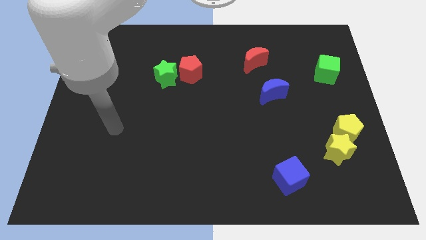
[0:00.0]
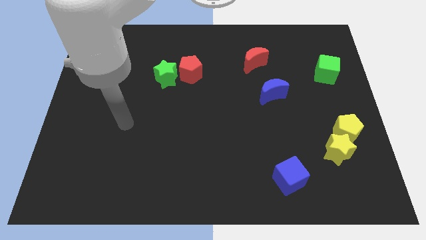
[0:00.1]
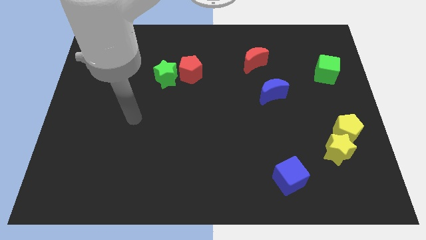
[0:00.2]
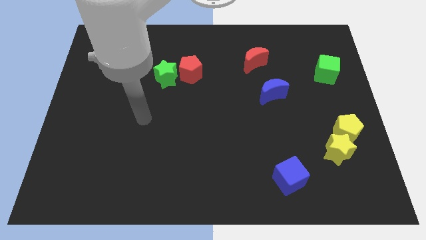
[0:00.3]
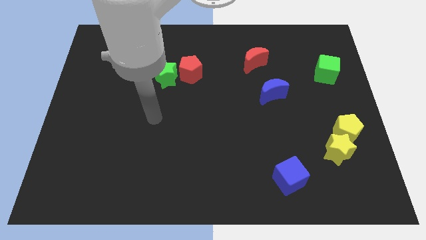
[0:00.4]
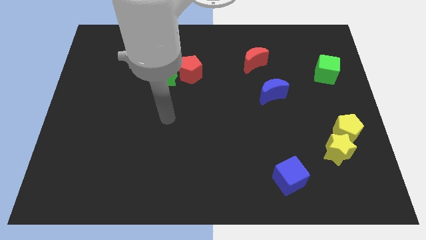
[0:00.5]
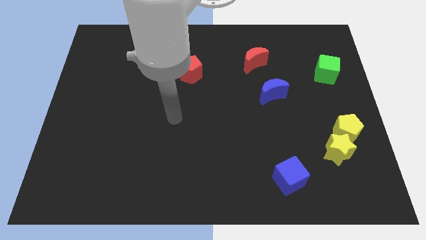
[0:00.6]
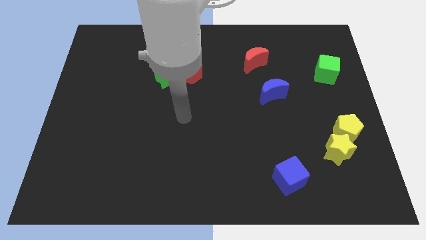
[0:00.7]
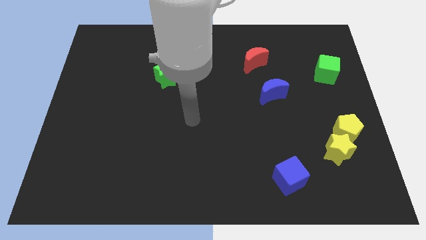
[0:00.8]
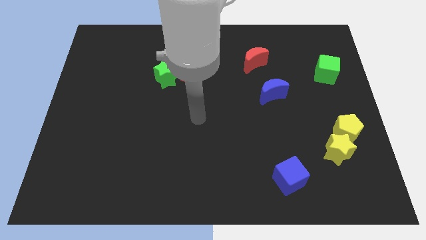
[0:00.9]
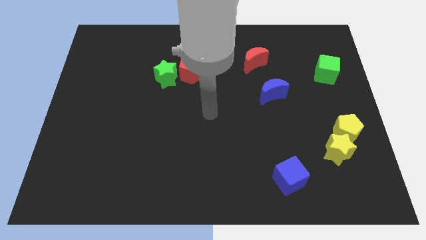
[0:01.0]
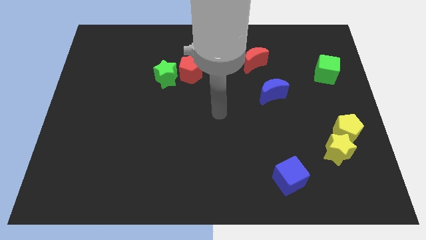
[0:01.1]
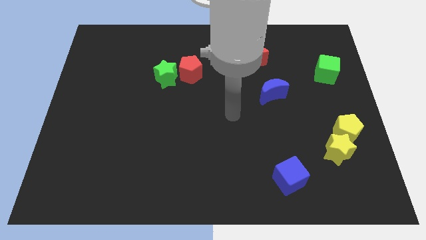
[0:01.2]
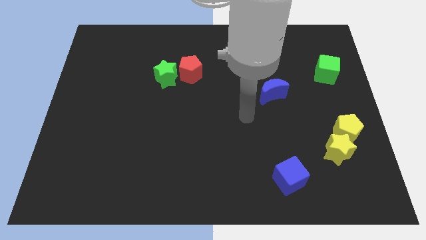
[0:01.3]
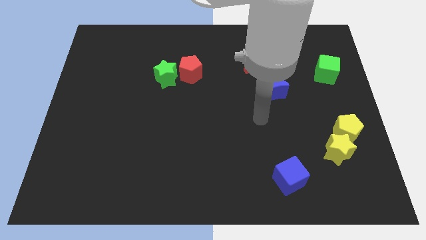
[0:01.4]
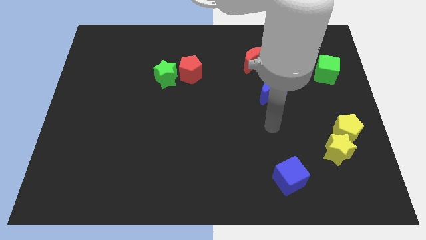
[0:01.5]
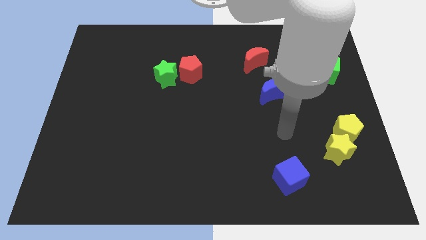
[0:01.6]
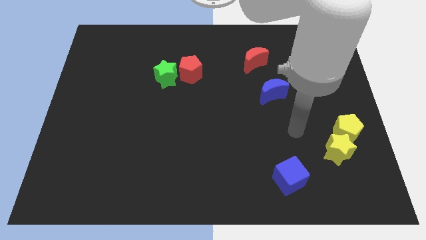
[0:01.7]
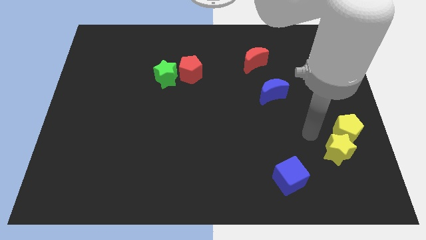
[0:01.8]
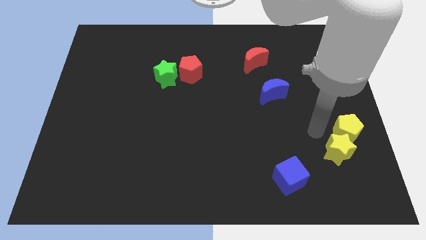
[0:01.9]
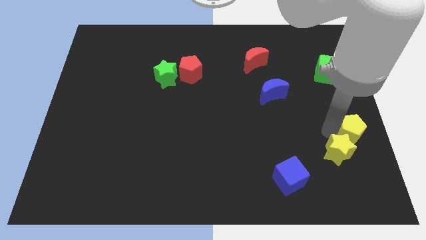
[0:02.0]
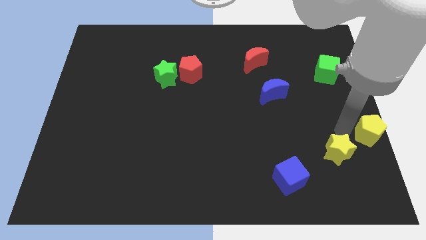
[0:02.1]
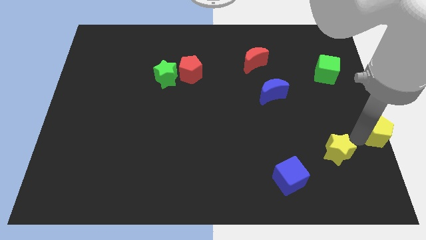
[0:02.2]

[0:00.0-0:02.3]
separate the yellow star from the yellow pentagon

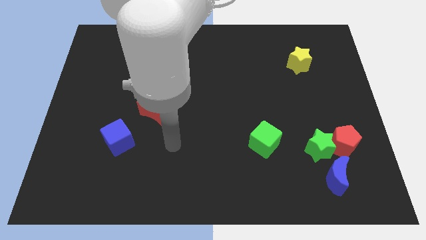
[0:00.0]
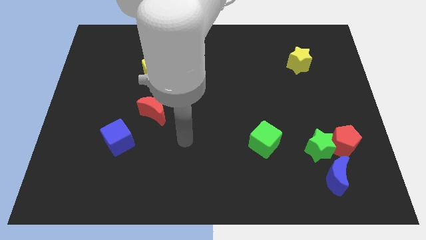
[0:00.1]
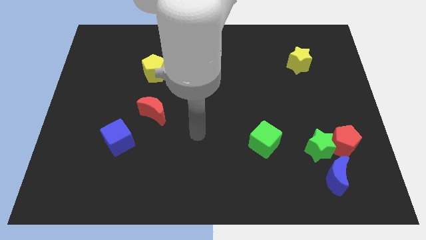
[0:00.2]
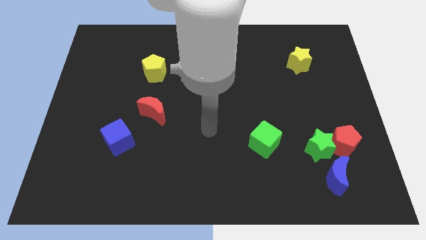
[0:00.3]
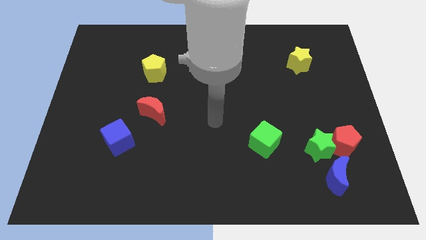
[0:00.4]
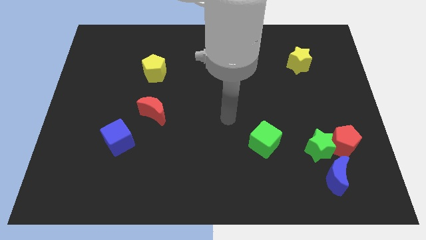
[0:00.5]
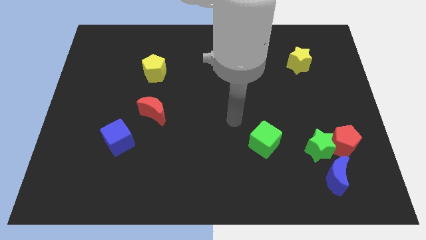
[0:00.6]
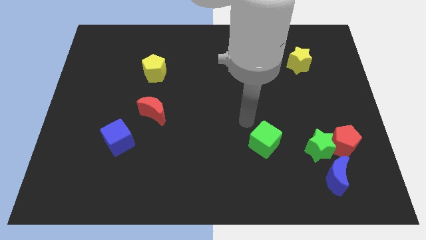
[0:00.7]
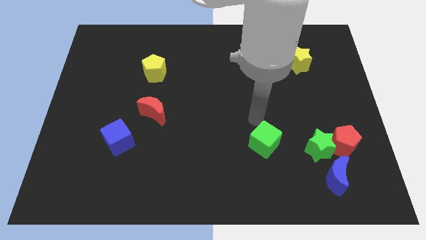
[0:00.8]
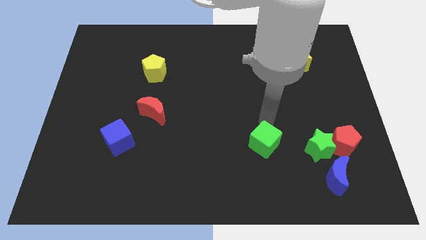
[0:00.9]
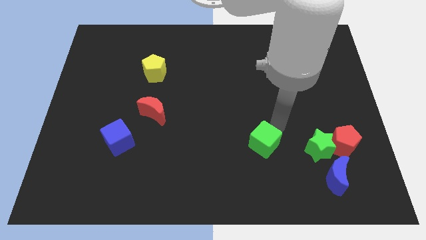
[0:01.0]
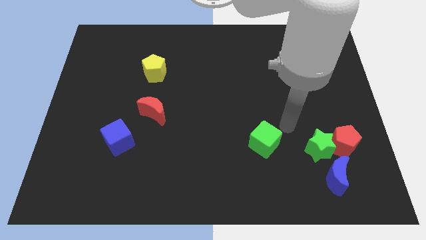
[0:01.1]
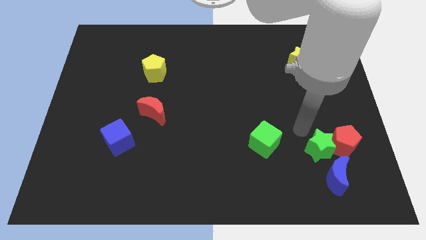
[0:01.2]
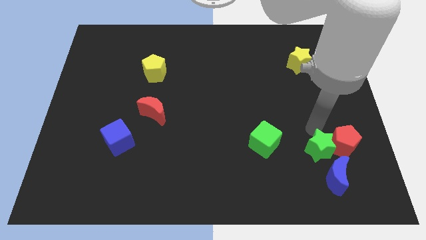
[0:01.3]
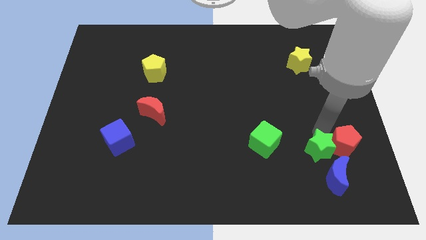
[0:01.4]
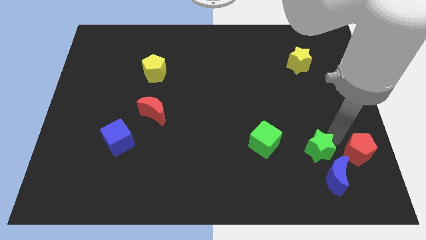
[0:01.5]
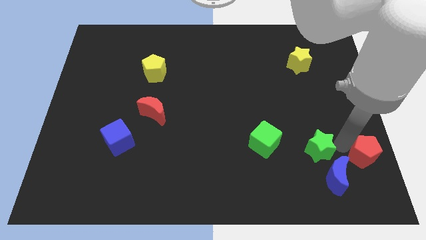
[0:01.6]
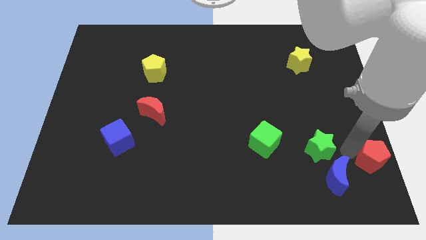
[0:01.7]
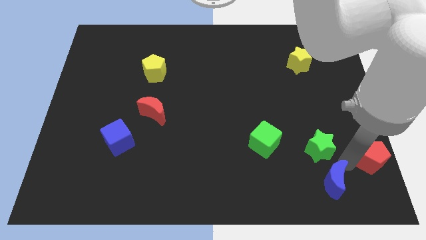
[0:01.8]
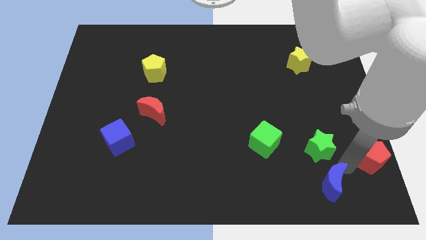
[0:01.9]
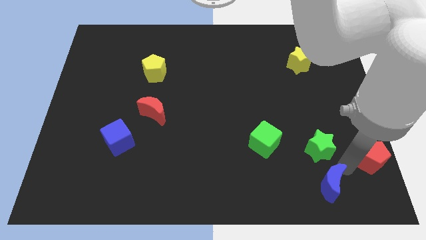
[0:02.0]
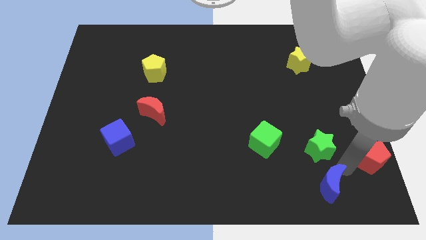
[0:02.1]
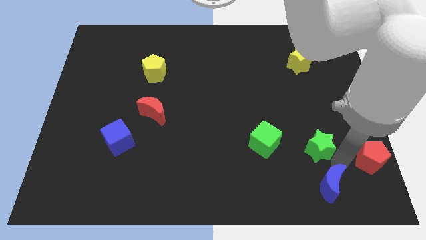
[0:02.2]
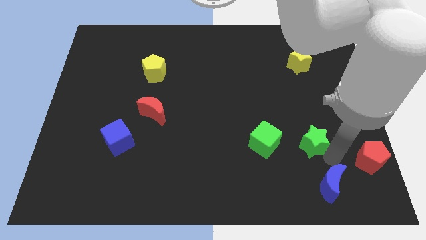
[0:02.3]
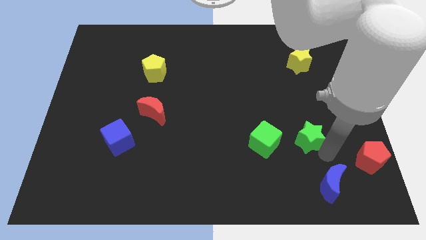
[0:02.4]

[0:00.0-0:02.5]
move the green star away from the red pentagon and blue moon

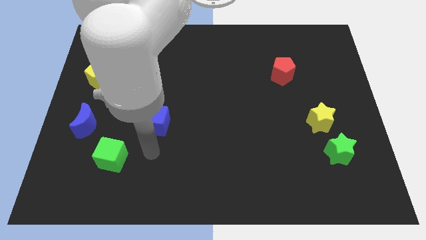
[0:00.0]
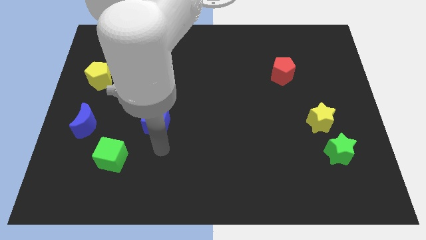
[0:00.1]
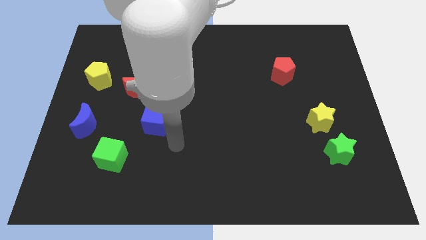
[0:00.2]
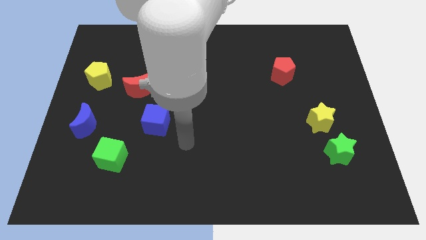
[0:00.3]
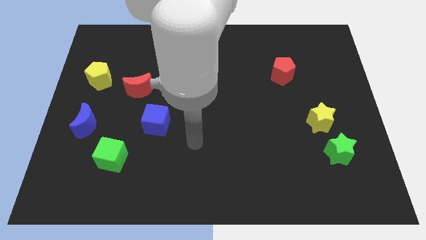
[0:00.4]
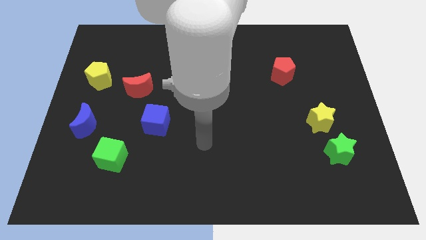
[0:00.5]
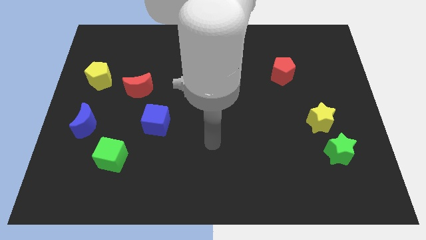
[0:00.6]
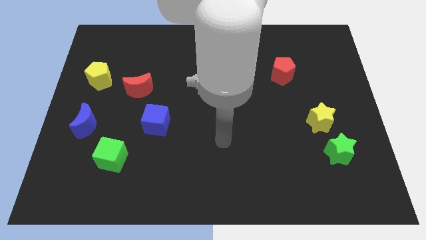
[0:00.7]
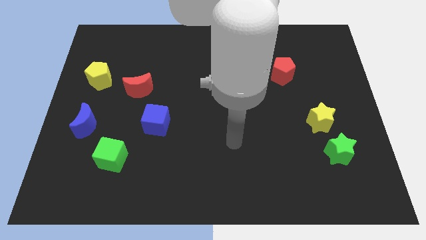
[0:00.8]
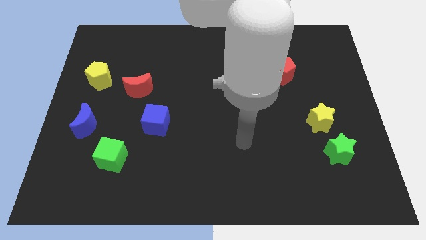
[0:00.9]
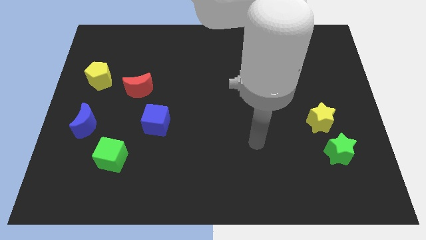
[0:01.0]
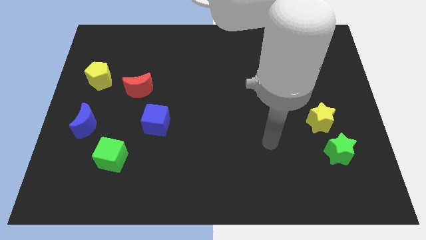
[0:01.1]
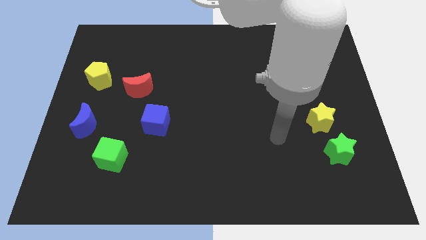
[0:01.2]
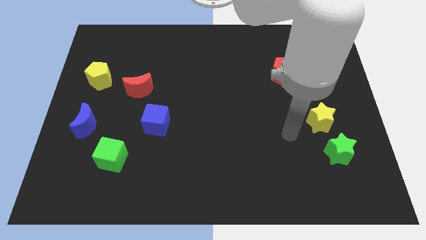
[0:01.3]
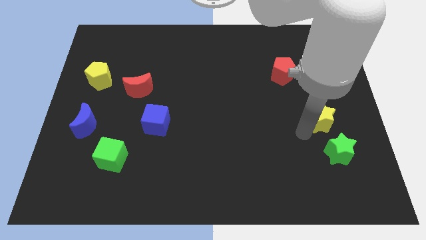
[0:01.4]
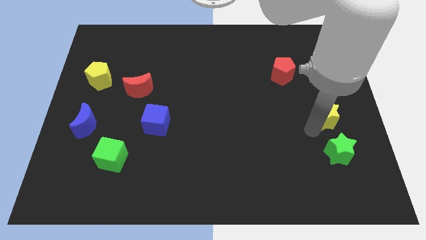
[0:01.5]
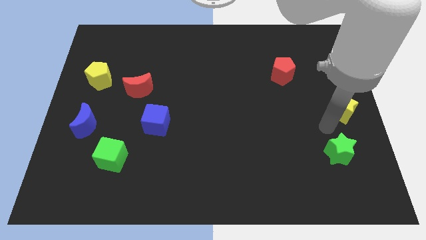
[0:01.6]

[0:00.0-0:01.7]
move the green star away from the yellow star

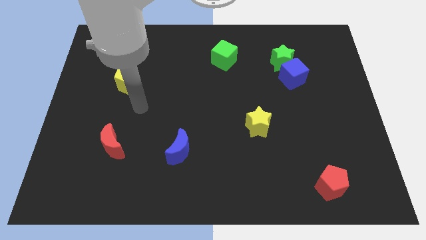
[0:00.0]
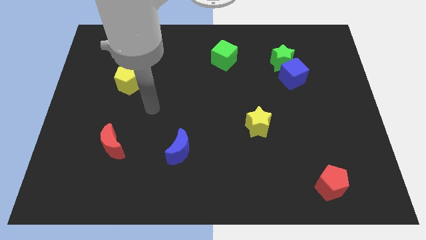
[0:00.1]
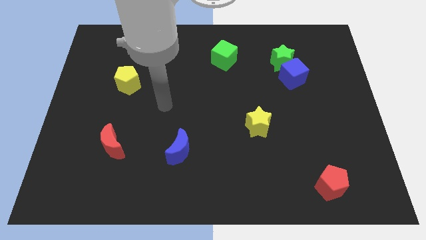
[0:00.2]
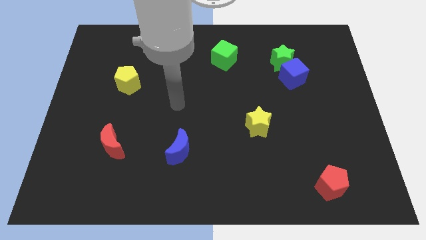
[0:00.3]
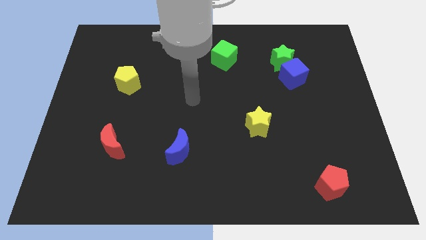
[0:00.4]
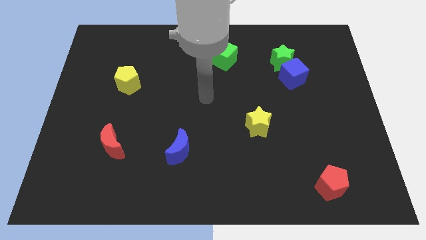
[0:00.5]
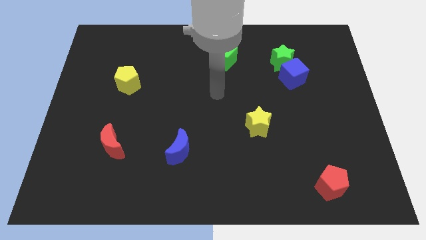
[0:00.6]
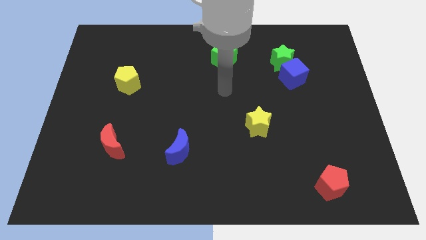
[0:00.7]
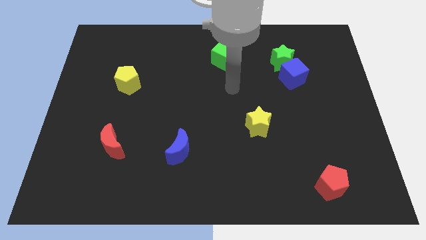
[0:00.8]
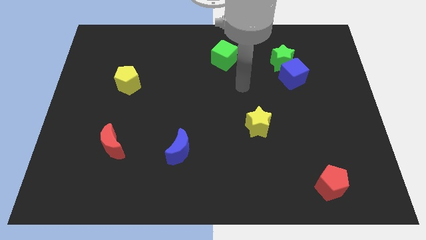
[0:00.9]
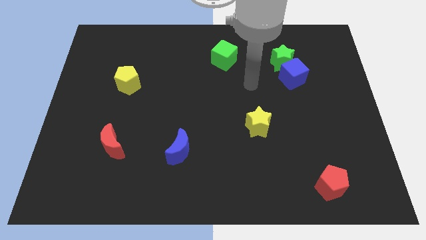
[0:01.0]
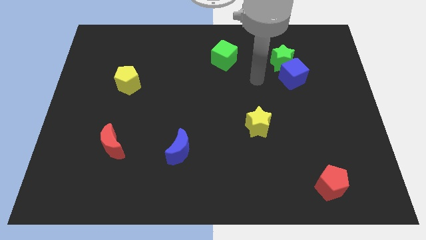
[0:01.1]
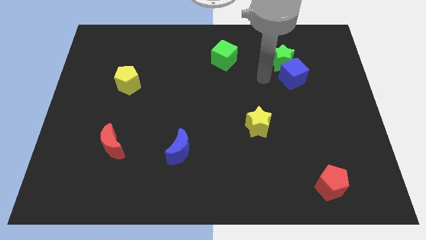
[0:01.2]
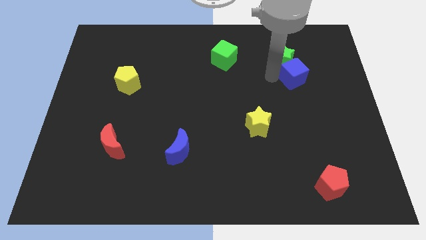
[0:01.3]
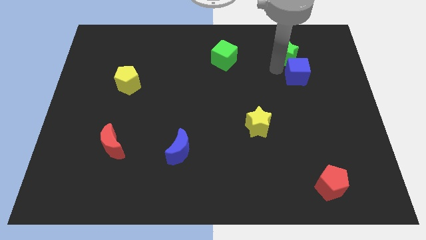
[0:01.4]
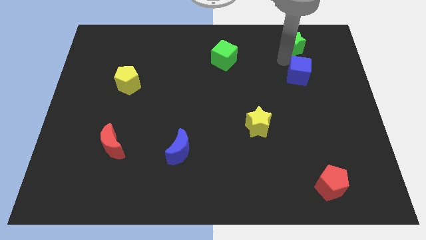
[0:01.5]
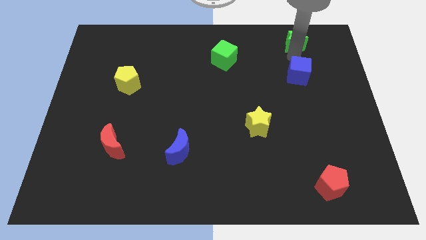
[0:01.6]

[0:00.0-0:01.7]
separate the blue cube from the green star

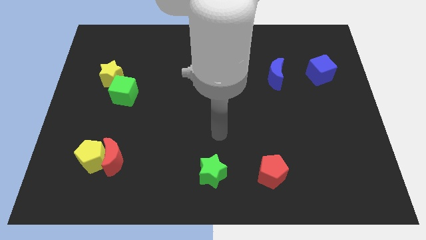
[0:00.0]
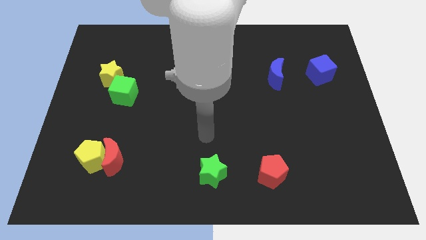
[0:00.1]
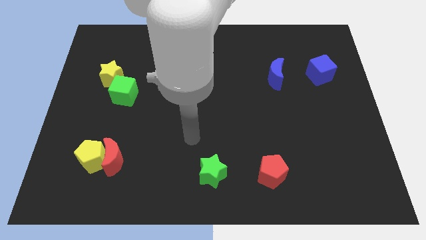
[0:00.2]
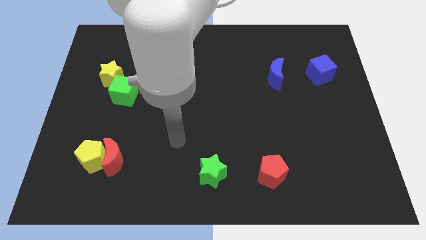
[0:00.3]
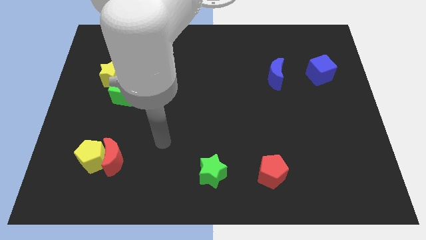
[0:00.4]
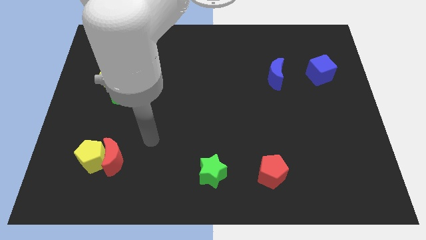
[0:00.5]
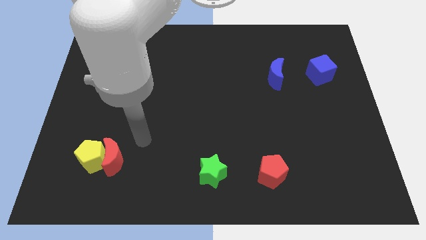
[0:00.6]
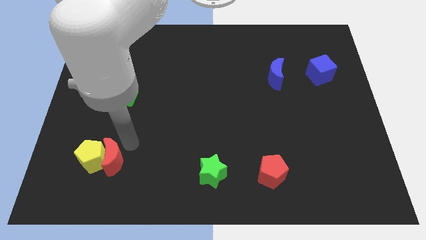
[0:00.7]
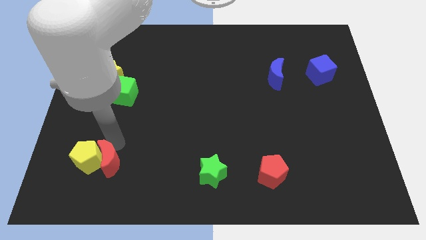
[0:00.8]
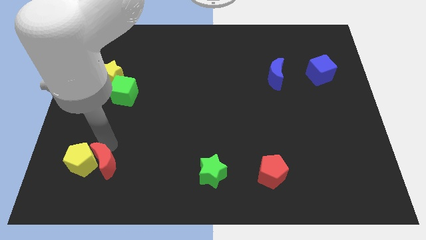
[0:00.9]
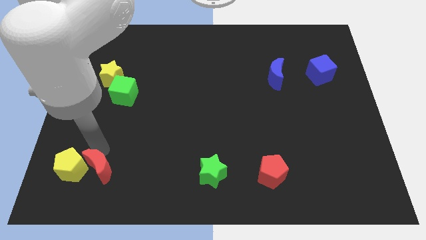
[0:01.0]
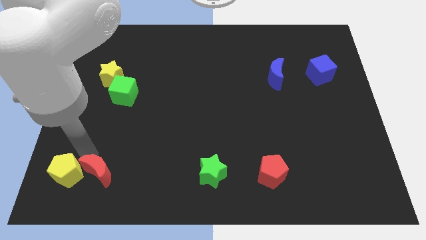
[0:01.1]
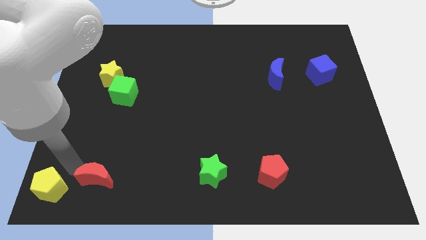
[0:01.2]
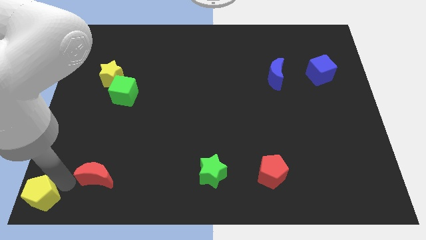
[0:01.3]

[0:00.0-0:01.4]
separate the red moon from the yellow pentagon
